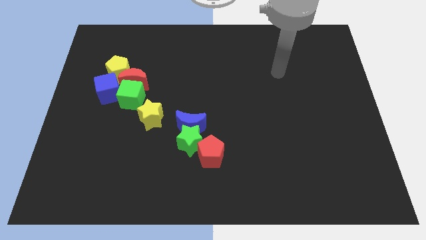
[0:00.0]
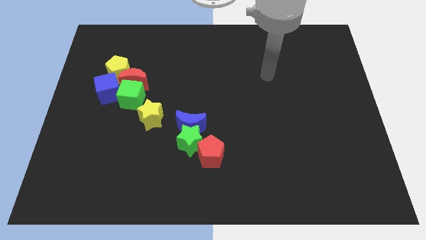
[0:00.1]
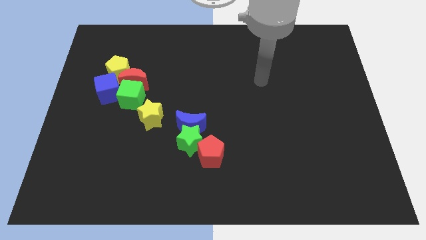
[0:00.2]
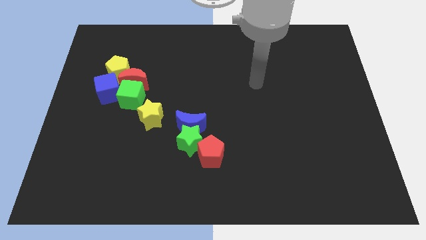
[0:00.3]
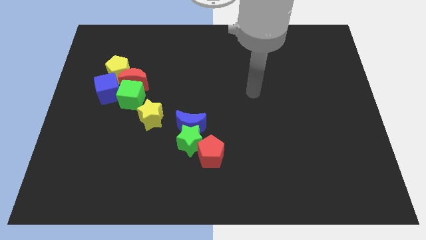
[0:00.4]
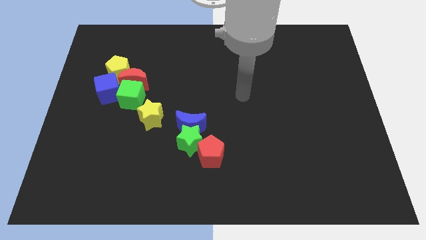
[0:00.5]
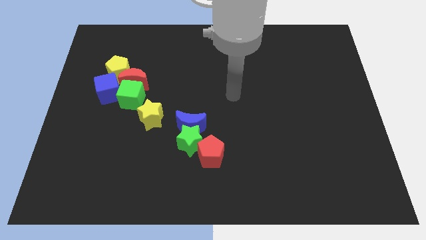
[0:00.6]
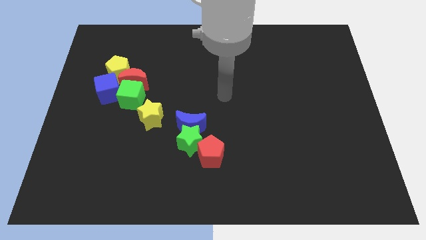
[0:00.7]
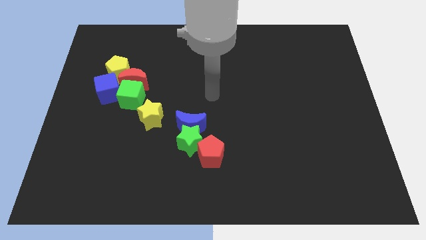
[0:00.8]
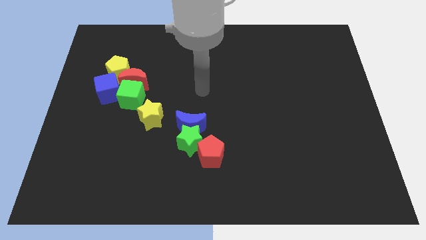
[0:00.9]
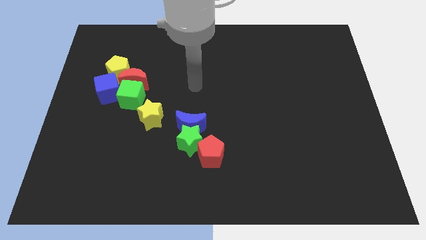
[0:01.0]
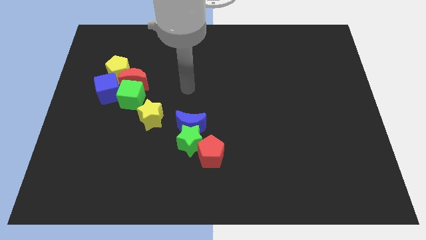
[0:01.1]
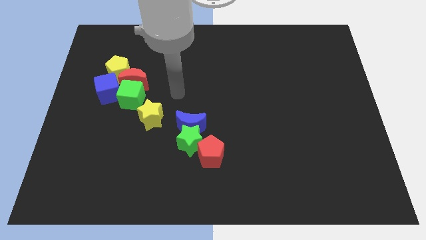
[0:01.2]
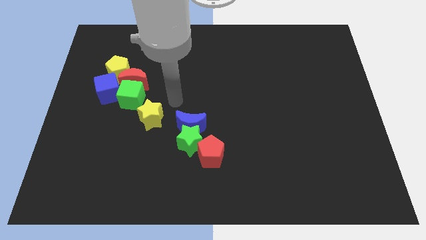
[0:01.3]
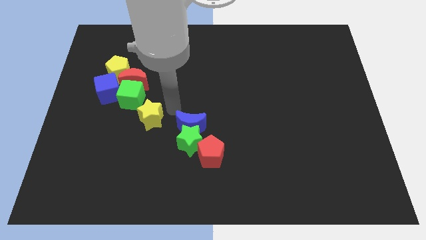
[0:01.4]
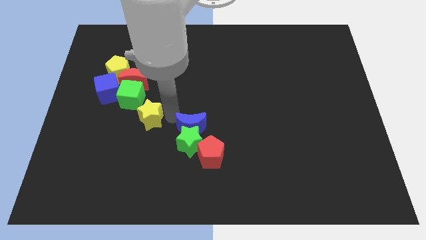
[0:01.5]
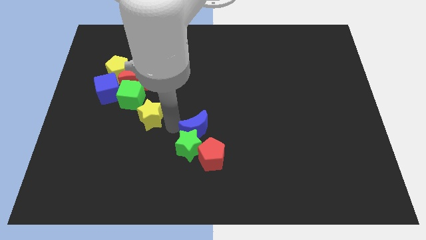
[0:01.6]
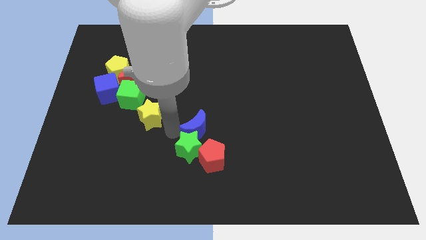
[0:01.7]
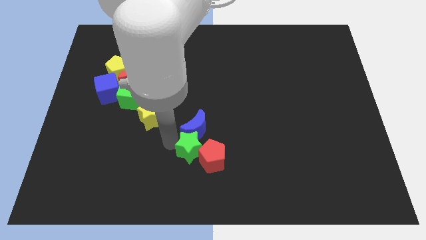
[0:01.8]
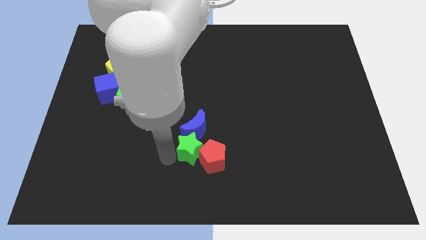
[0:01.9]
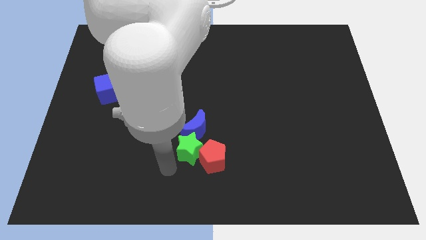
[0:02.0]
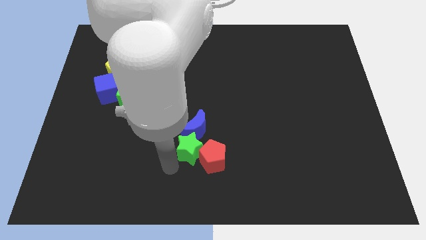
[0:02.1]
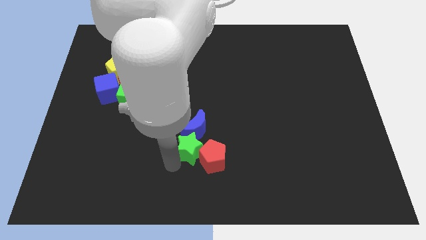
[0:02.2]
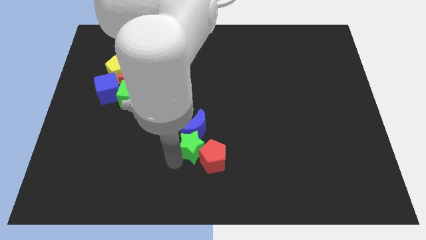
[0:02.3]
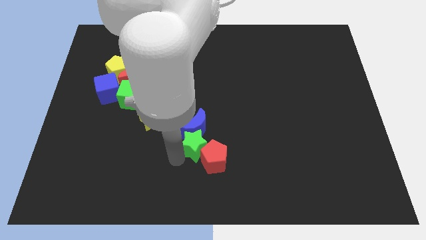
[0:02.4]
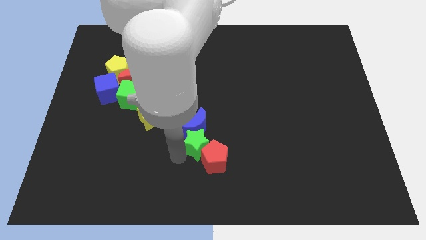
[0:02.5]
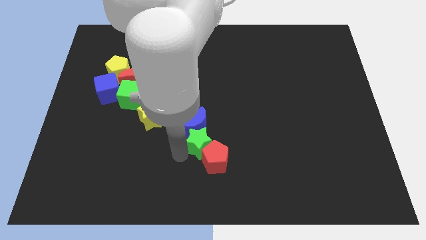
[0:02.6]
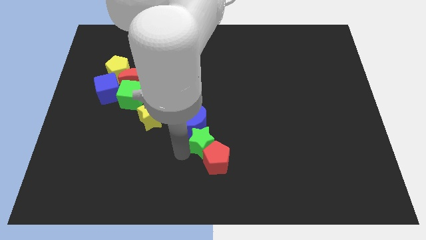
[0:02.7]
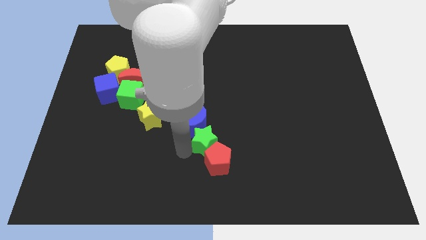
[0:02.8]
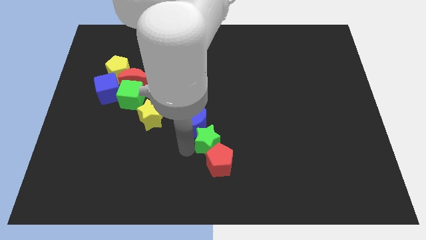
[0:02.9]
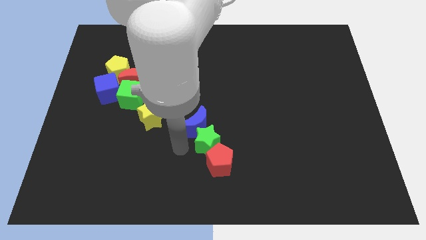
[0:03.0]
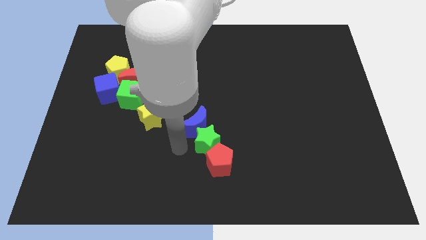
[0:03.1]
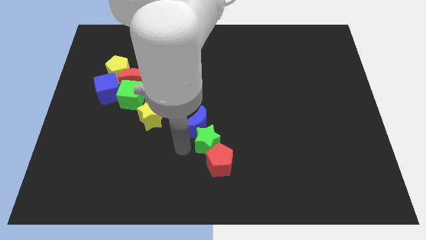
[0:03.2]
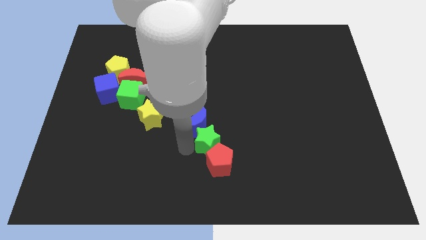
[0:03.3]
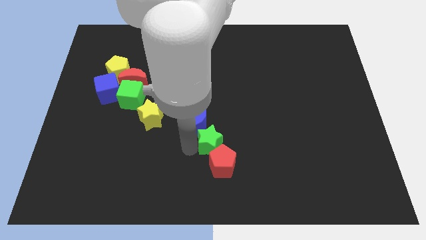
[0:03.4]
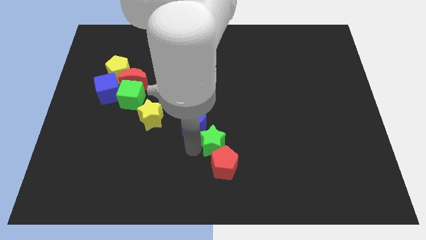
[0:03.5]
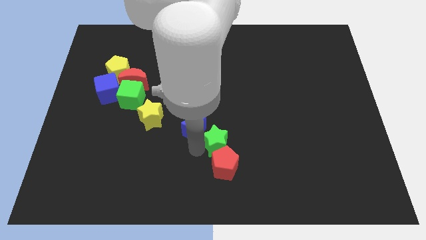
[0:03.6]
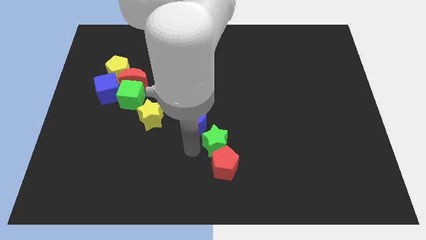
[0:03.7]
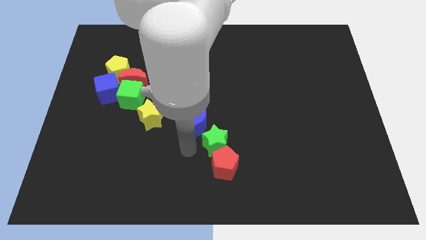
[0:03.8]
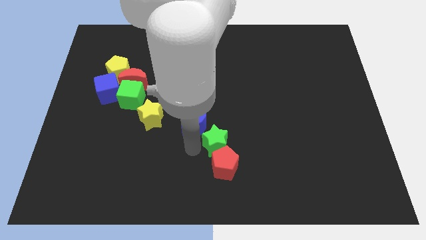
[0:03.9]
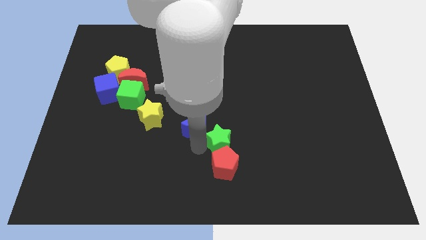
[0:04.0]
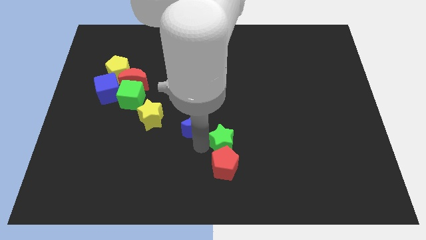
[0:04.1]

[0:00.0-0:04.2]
move the green star a little to the right

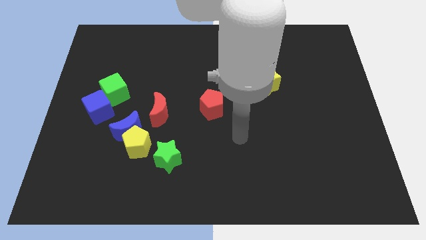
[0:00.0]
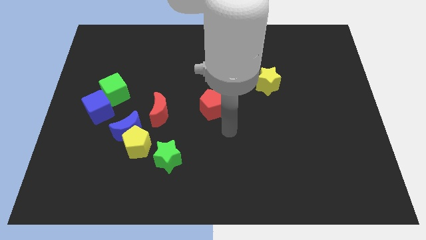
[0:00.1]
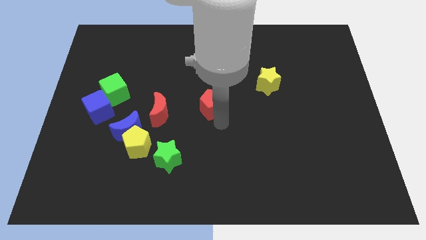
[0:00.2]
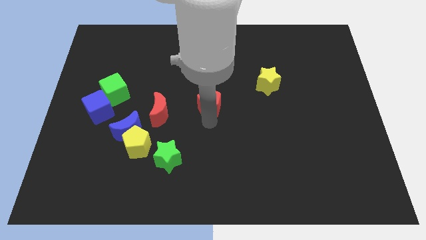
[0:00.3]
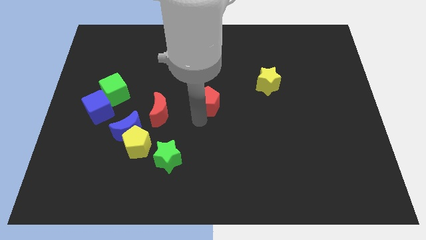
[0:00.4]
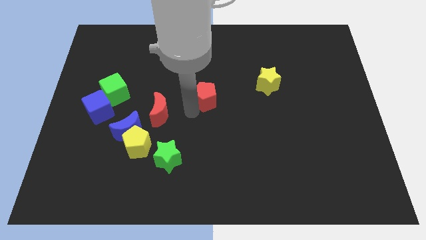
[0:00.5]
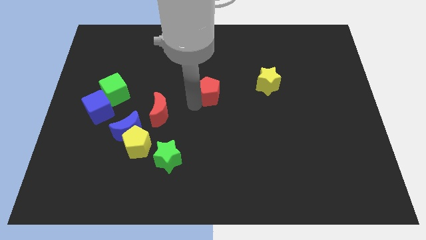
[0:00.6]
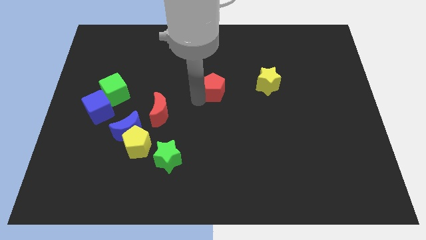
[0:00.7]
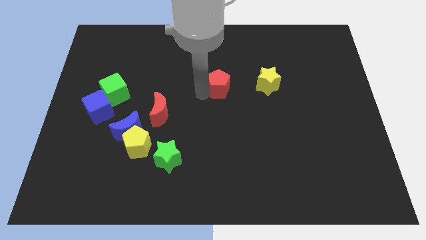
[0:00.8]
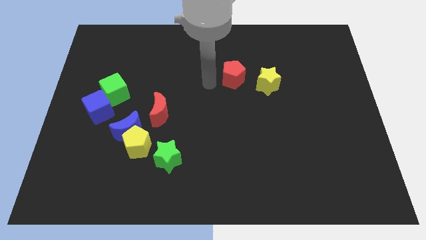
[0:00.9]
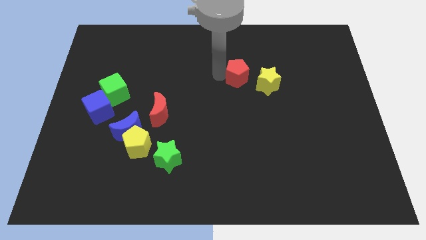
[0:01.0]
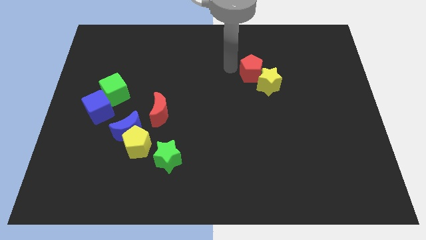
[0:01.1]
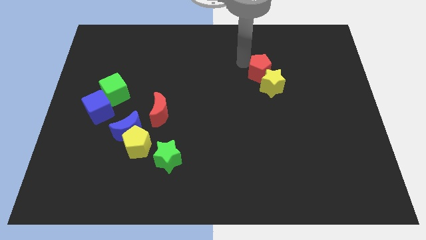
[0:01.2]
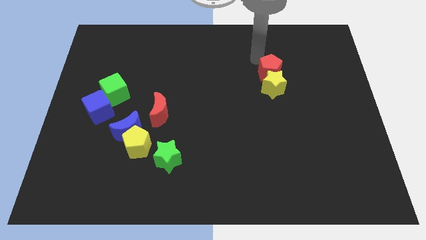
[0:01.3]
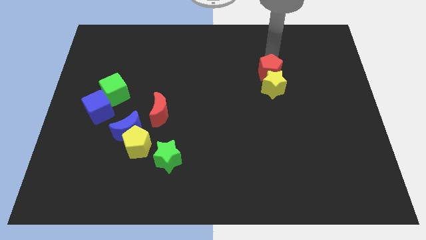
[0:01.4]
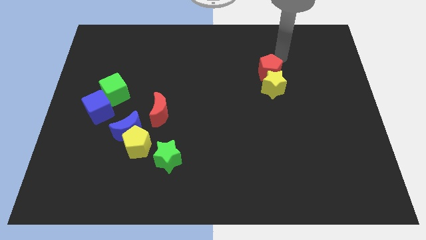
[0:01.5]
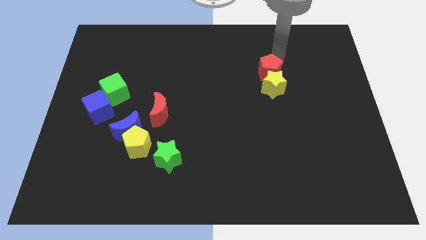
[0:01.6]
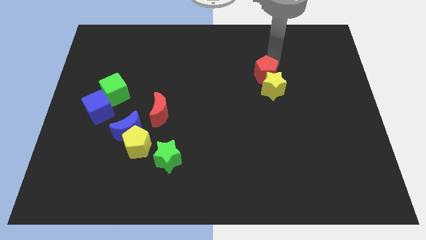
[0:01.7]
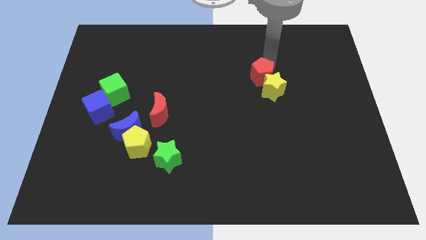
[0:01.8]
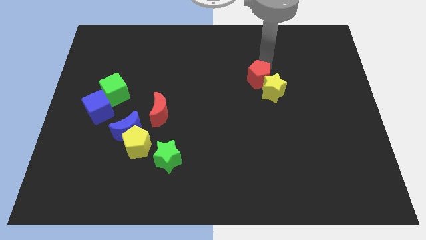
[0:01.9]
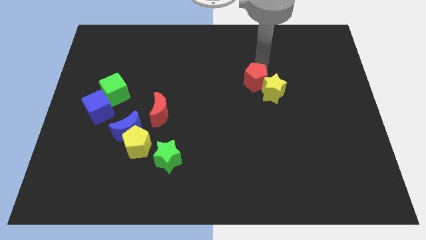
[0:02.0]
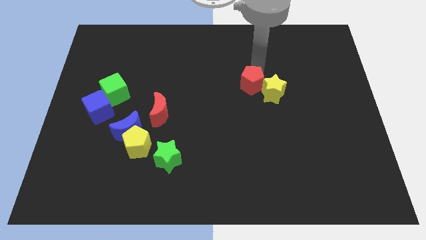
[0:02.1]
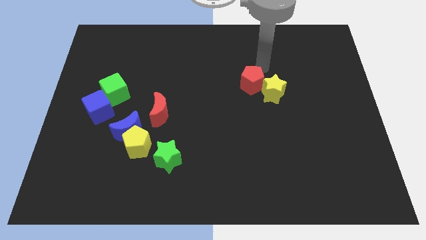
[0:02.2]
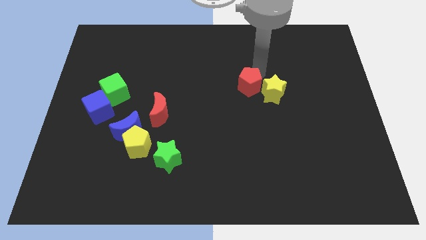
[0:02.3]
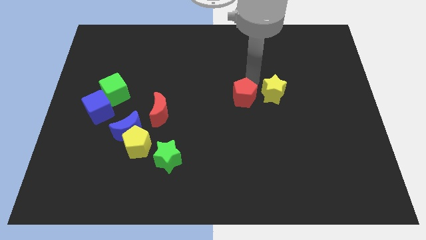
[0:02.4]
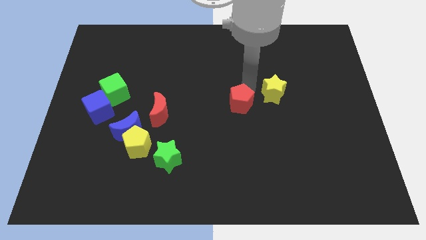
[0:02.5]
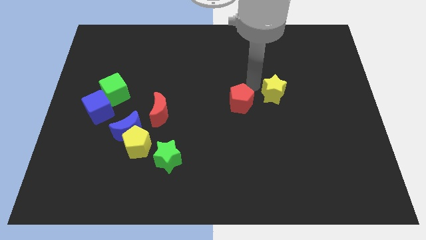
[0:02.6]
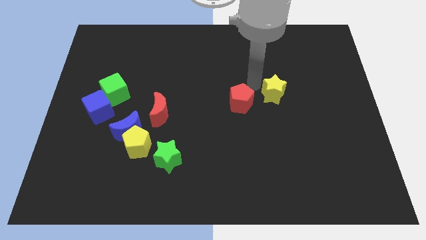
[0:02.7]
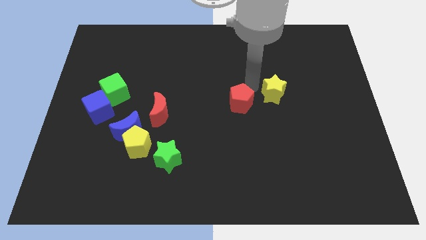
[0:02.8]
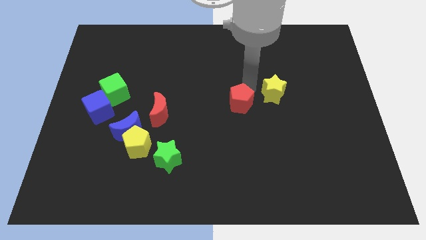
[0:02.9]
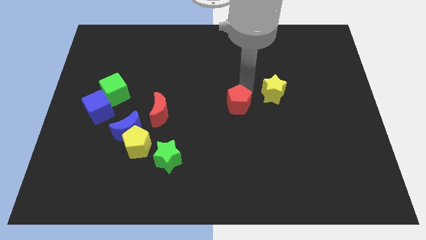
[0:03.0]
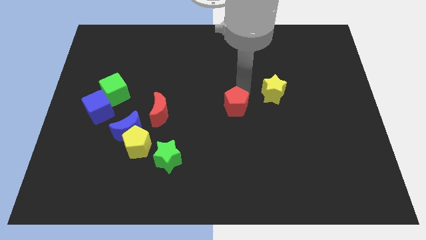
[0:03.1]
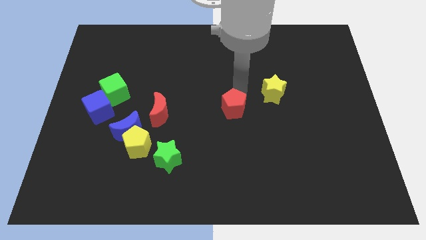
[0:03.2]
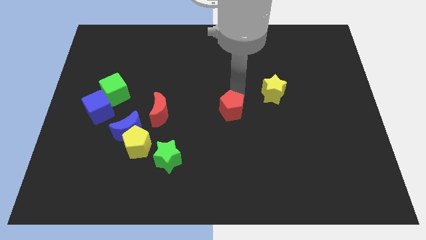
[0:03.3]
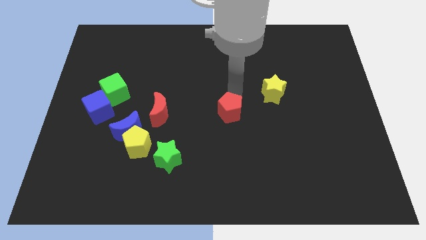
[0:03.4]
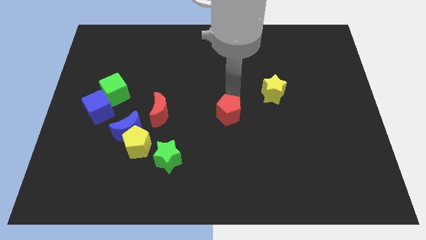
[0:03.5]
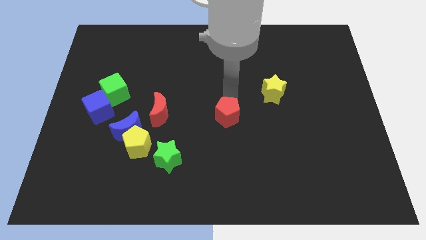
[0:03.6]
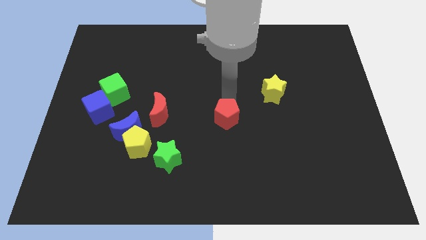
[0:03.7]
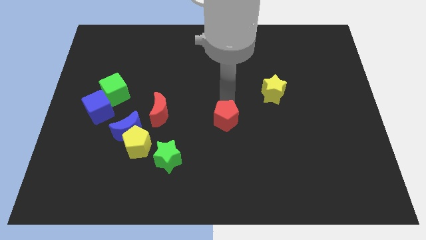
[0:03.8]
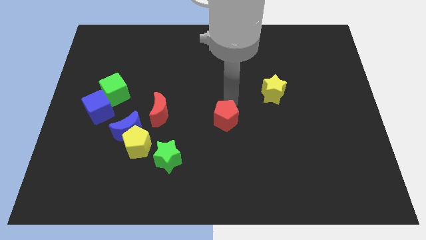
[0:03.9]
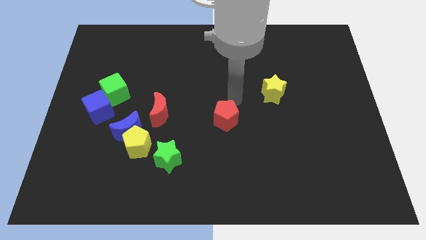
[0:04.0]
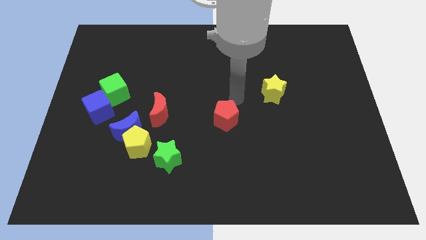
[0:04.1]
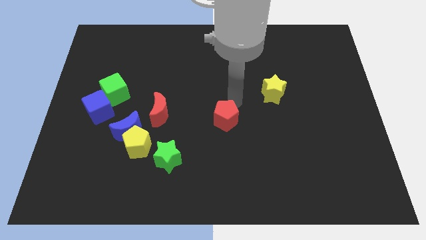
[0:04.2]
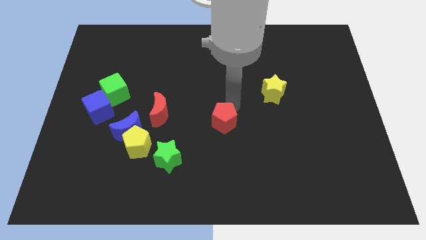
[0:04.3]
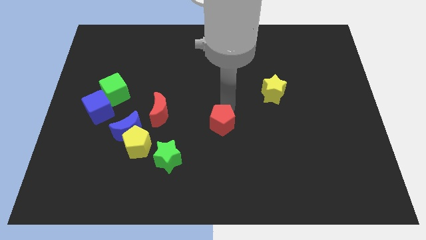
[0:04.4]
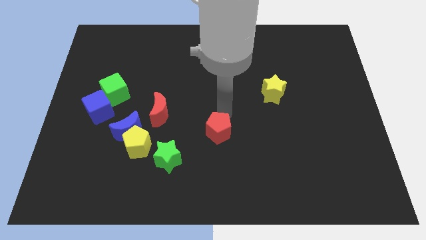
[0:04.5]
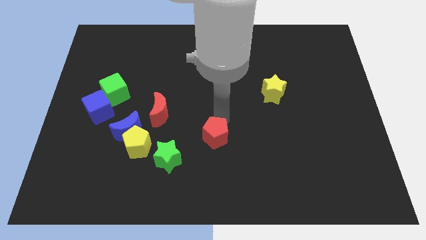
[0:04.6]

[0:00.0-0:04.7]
move the red pentagon down somewhat
